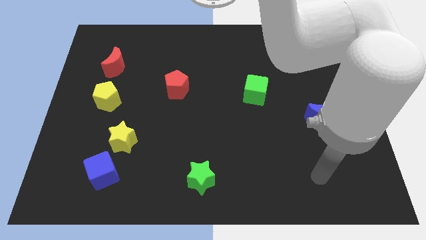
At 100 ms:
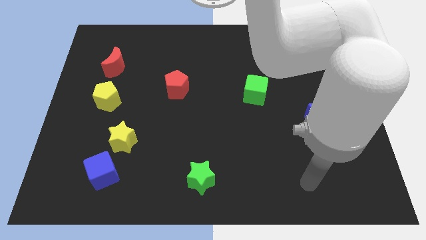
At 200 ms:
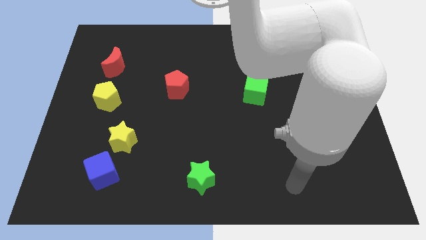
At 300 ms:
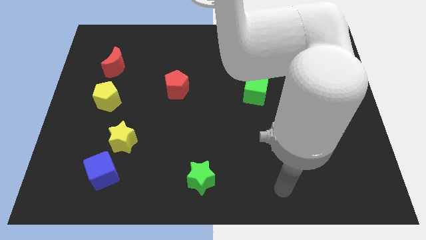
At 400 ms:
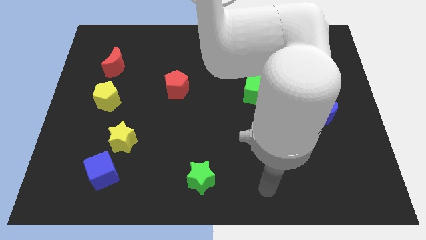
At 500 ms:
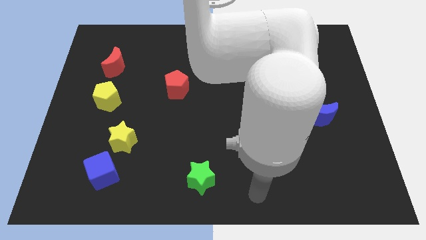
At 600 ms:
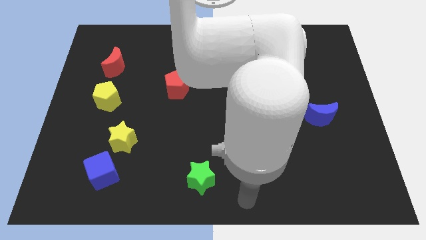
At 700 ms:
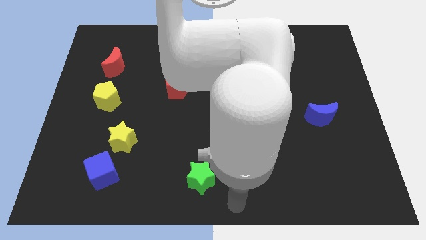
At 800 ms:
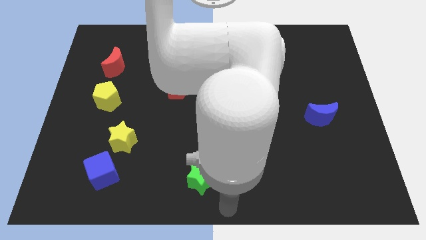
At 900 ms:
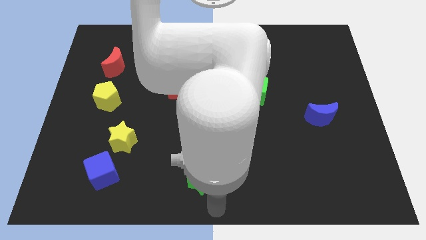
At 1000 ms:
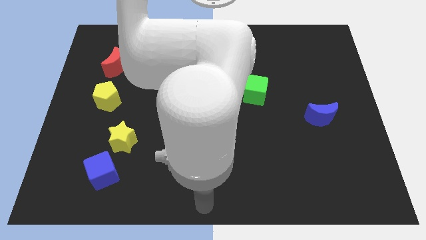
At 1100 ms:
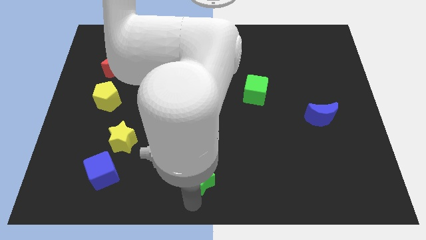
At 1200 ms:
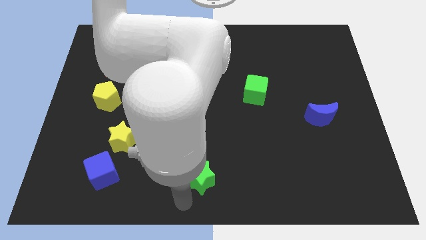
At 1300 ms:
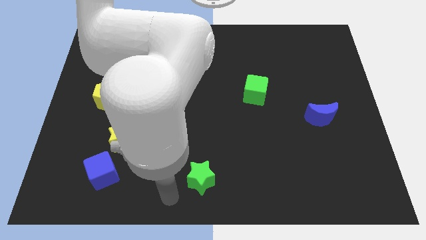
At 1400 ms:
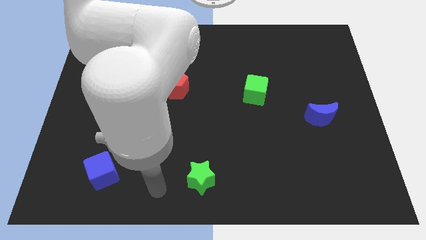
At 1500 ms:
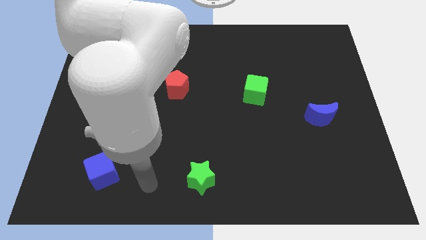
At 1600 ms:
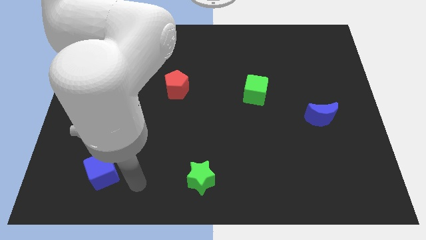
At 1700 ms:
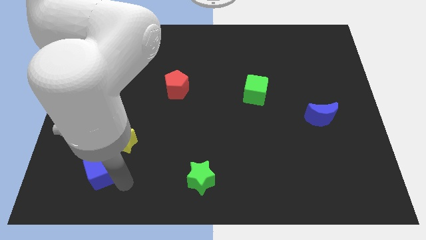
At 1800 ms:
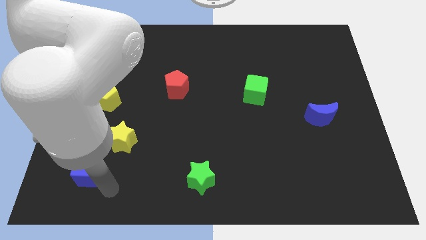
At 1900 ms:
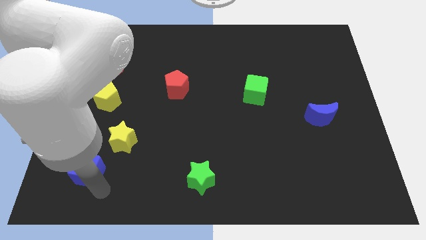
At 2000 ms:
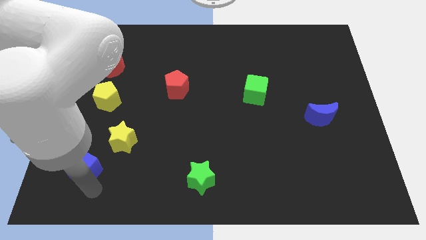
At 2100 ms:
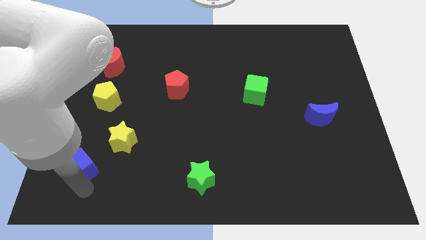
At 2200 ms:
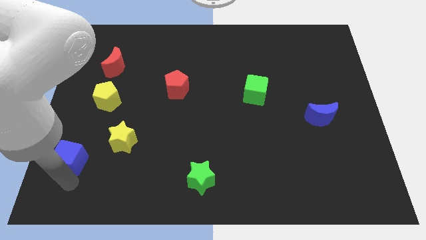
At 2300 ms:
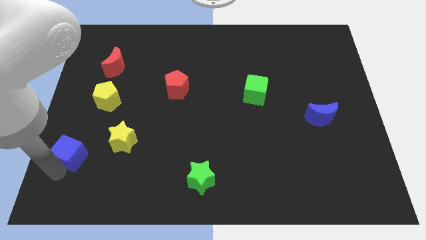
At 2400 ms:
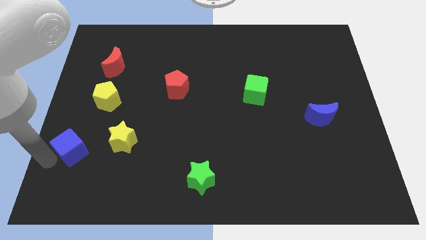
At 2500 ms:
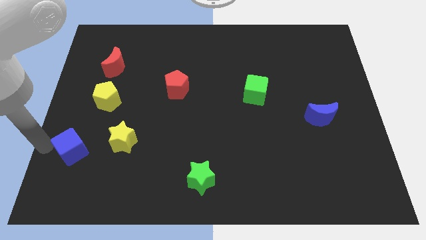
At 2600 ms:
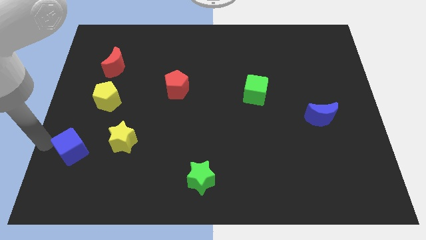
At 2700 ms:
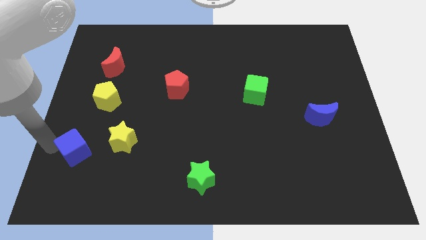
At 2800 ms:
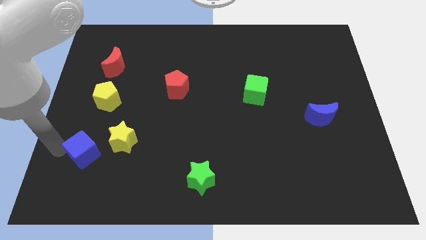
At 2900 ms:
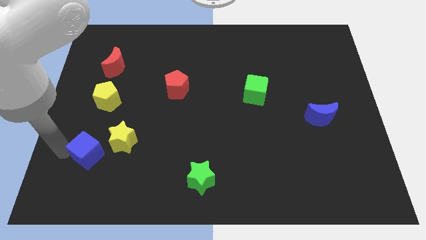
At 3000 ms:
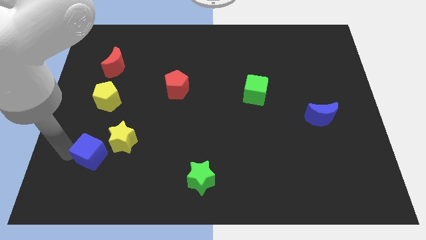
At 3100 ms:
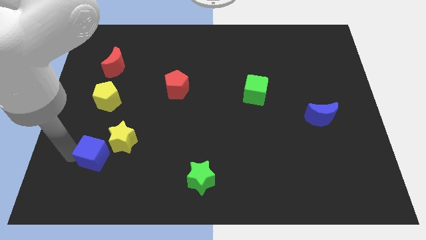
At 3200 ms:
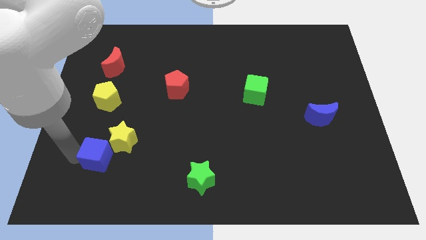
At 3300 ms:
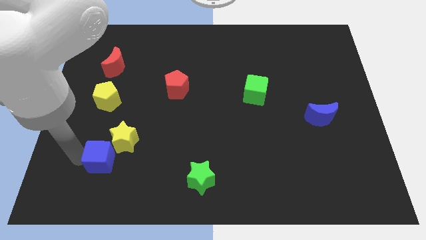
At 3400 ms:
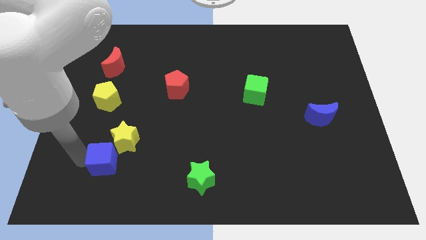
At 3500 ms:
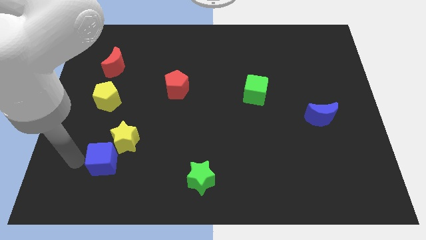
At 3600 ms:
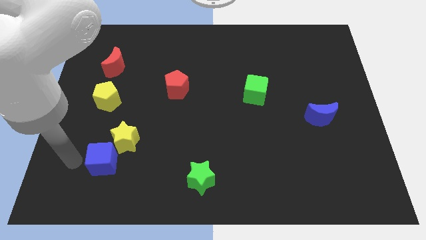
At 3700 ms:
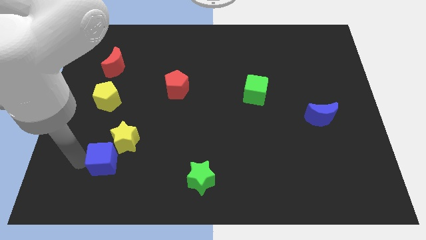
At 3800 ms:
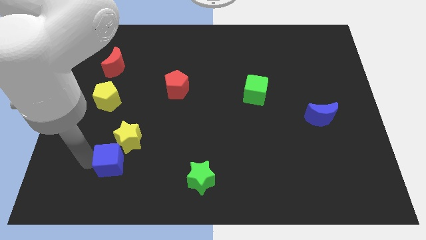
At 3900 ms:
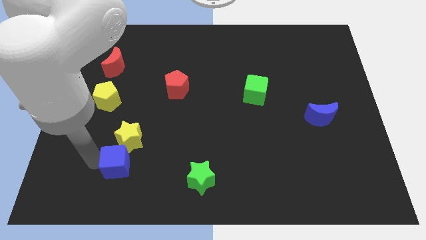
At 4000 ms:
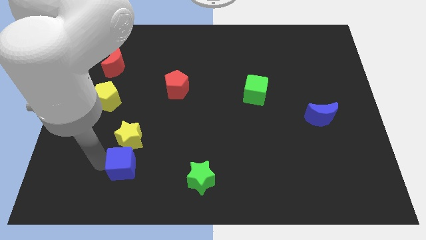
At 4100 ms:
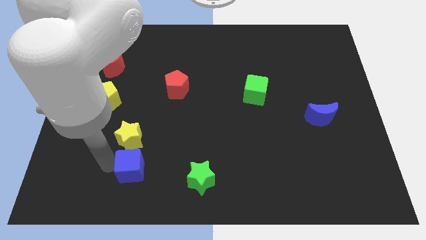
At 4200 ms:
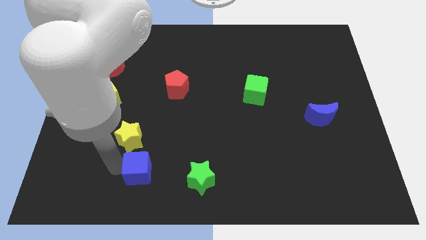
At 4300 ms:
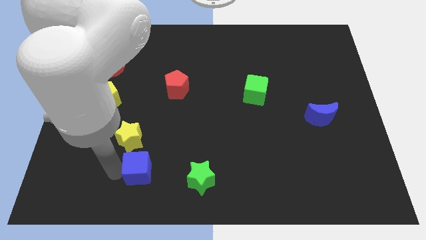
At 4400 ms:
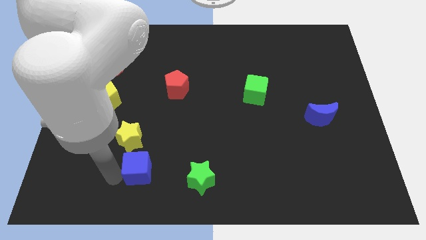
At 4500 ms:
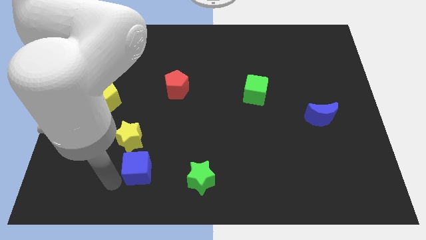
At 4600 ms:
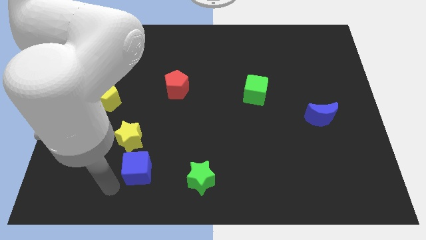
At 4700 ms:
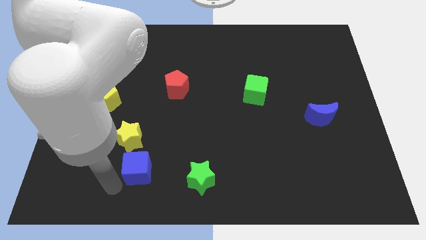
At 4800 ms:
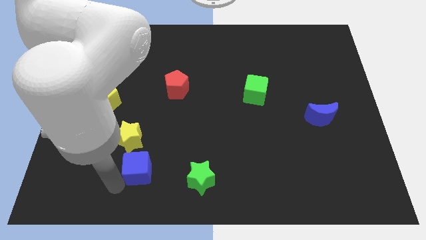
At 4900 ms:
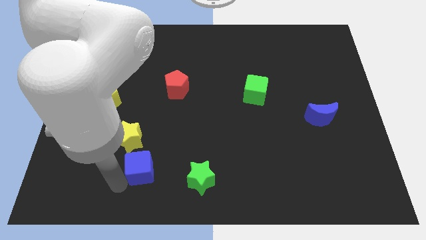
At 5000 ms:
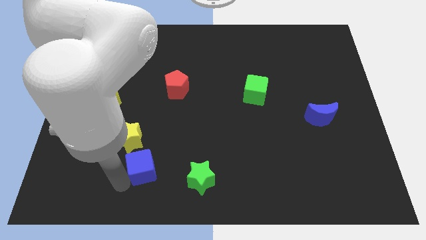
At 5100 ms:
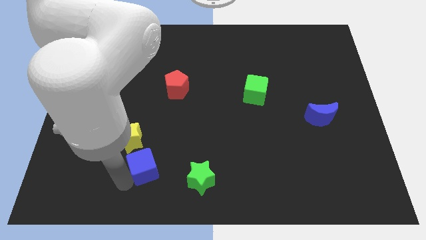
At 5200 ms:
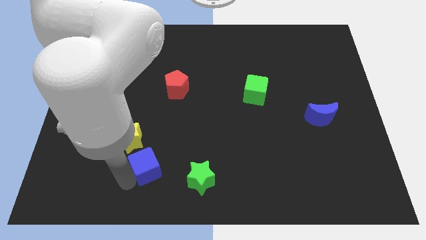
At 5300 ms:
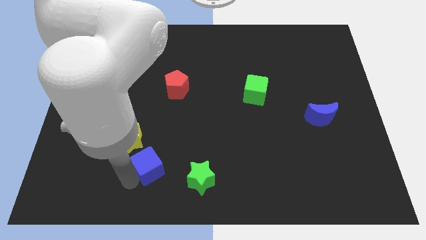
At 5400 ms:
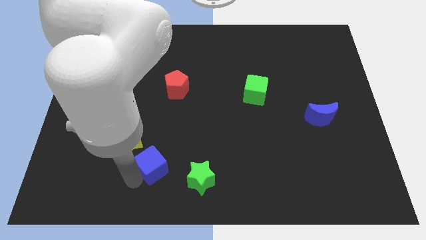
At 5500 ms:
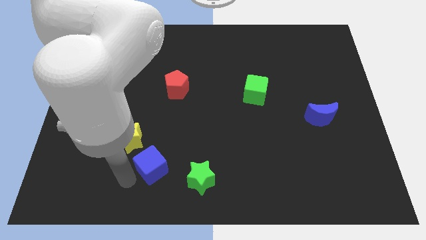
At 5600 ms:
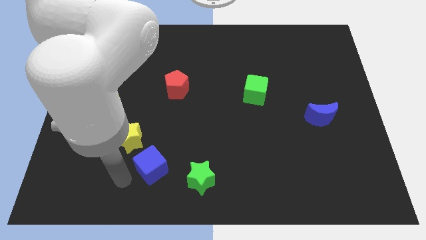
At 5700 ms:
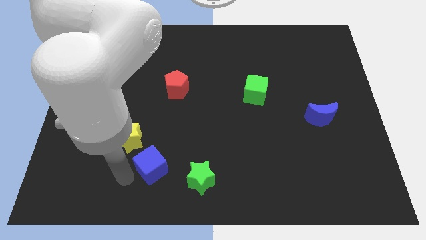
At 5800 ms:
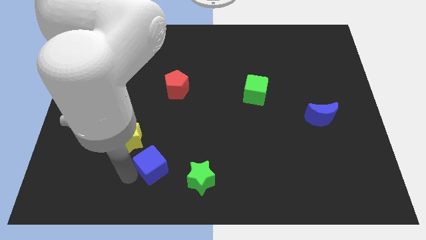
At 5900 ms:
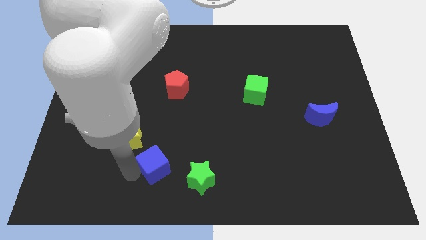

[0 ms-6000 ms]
push the blue cube to the top left side of the green star
